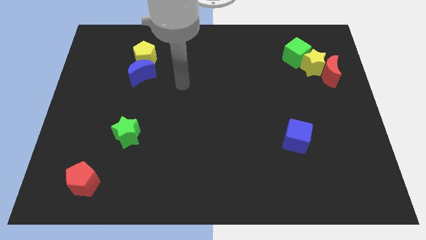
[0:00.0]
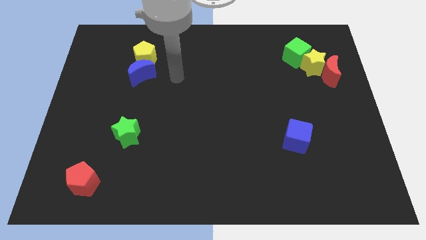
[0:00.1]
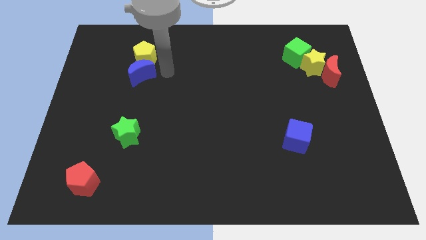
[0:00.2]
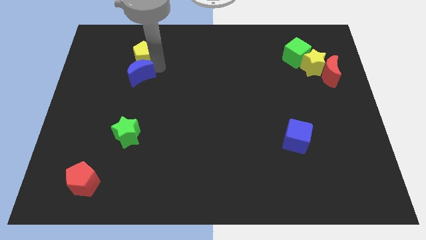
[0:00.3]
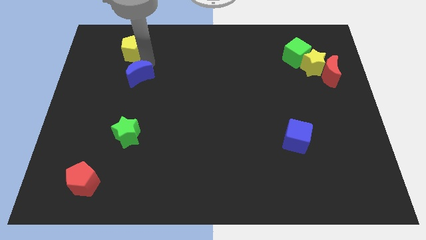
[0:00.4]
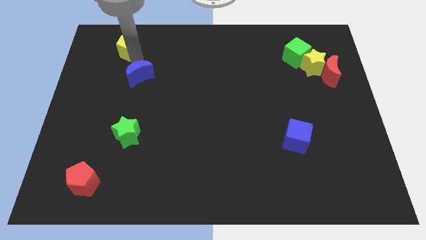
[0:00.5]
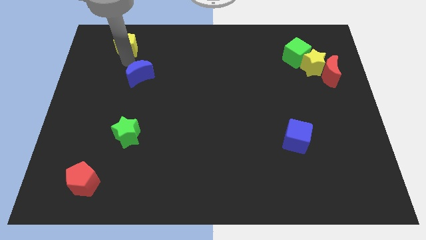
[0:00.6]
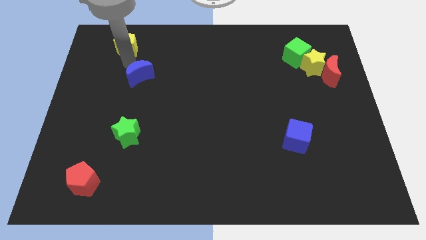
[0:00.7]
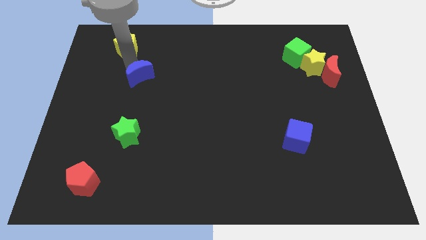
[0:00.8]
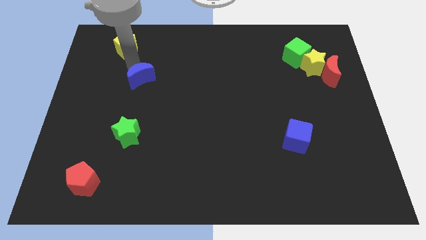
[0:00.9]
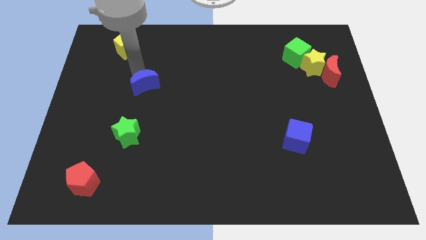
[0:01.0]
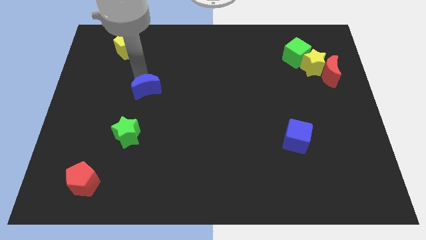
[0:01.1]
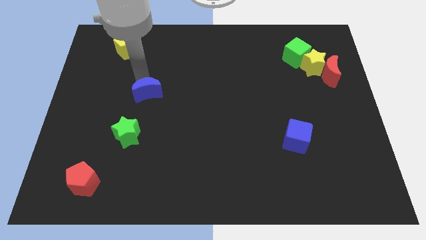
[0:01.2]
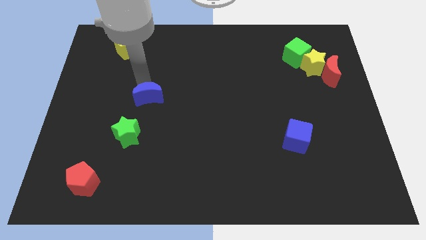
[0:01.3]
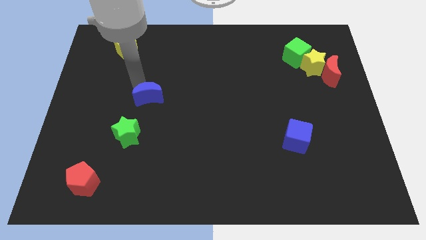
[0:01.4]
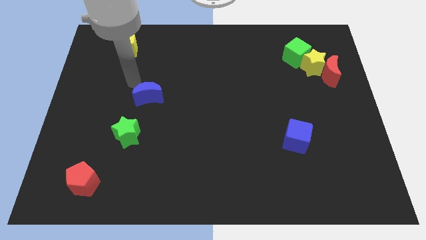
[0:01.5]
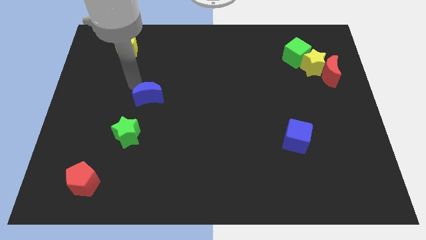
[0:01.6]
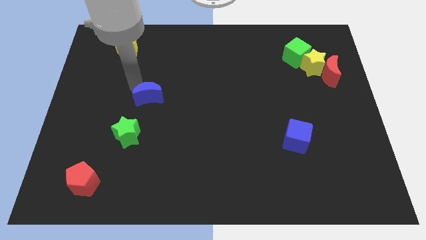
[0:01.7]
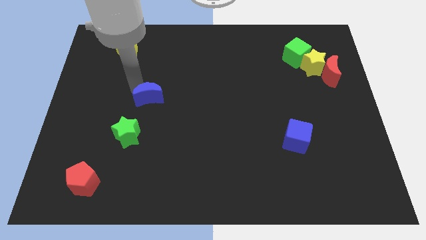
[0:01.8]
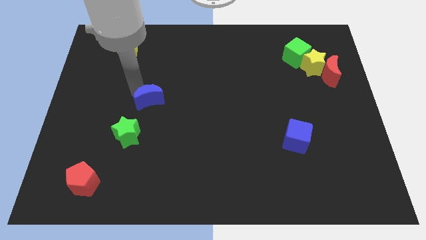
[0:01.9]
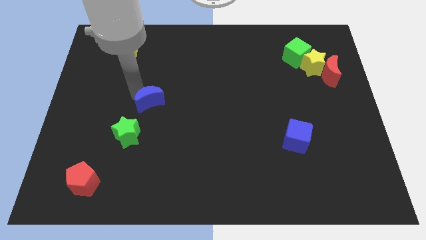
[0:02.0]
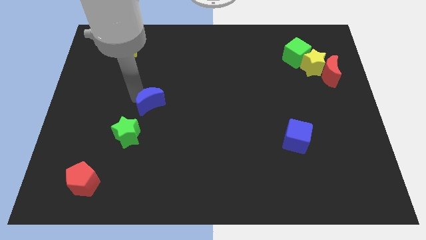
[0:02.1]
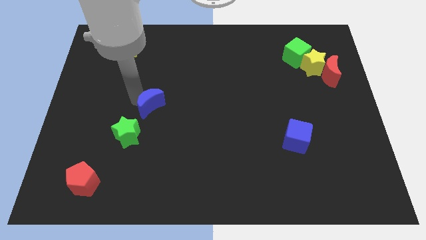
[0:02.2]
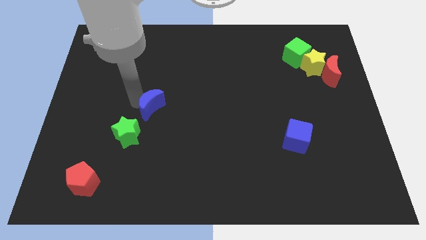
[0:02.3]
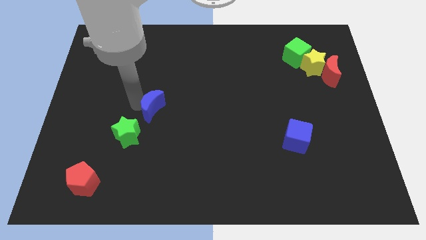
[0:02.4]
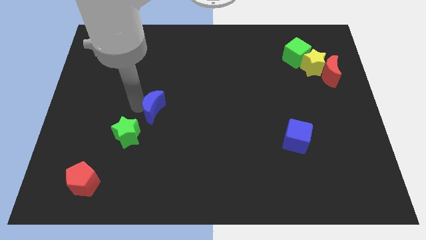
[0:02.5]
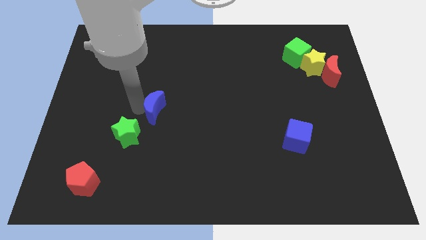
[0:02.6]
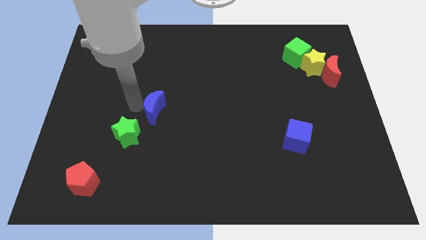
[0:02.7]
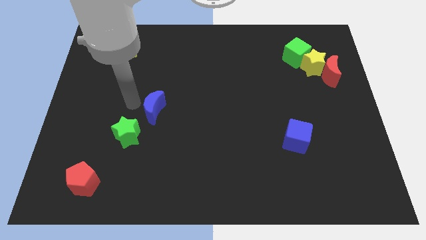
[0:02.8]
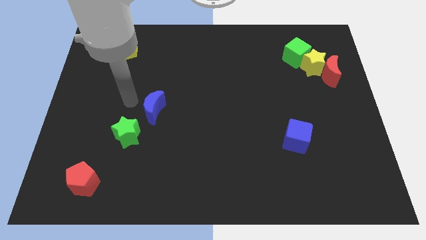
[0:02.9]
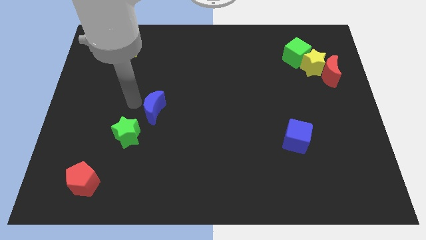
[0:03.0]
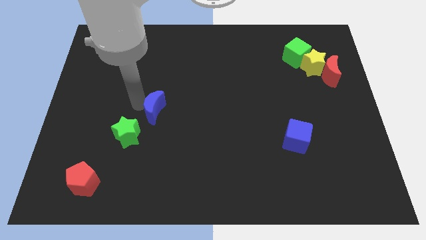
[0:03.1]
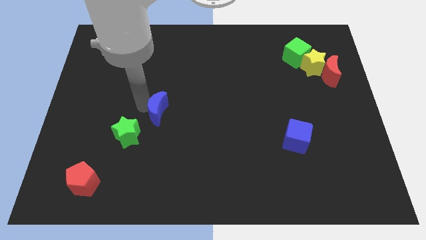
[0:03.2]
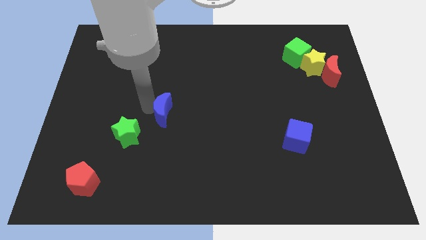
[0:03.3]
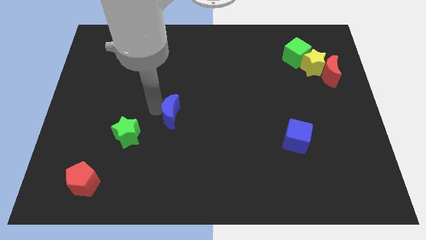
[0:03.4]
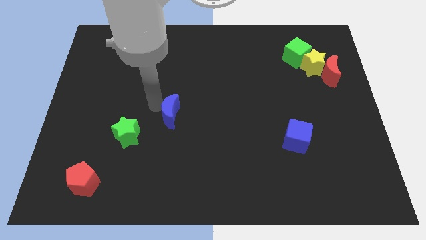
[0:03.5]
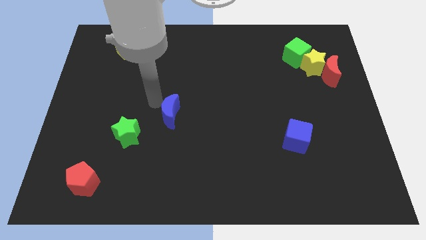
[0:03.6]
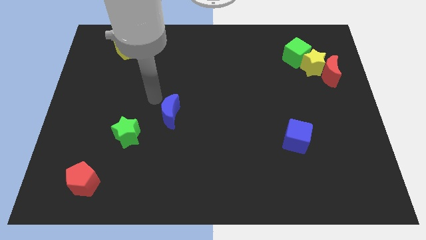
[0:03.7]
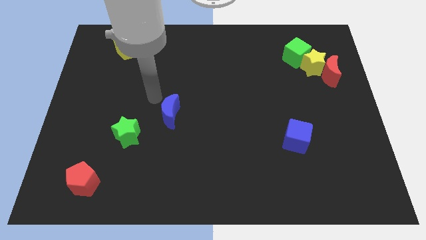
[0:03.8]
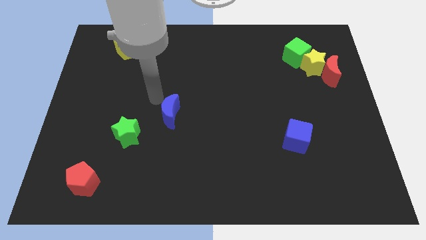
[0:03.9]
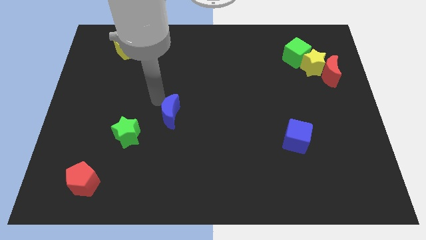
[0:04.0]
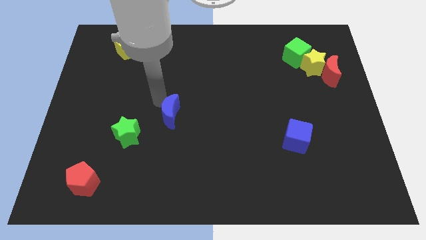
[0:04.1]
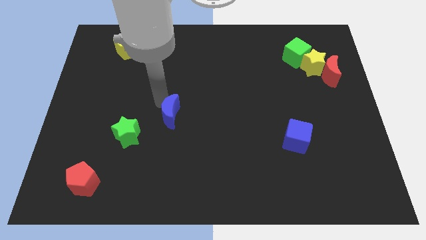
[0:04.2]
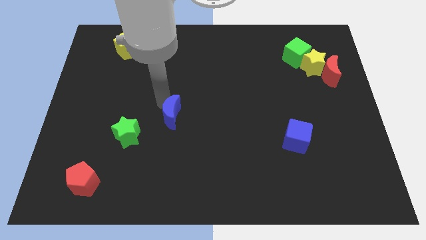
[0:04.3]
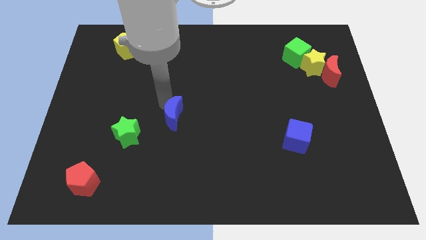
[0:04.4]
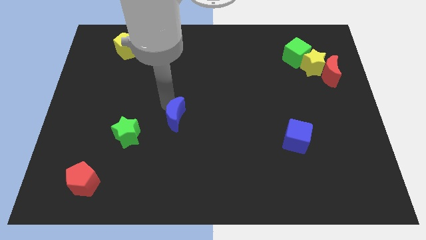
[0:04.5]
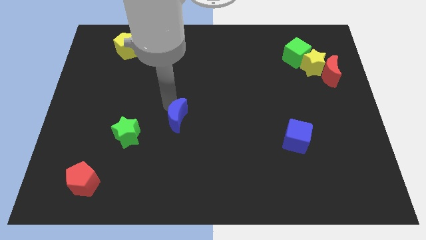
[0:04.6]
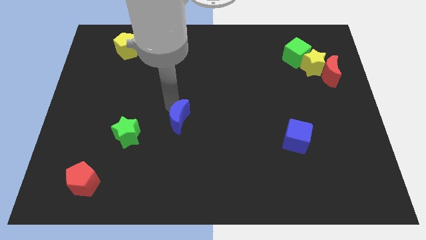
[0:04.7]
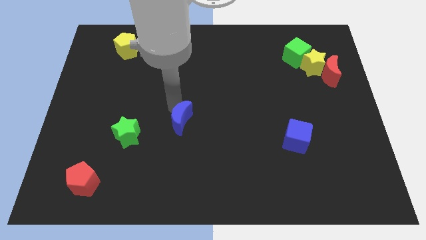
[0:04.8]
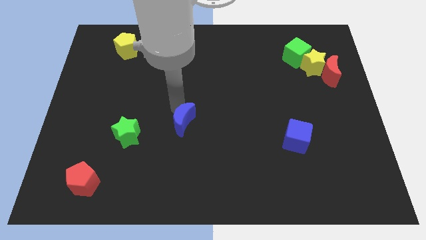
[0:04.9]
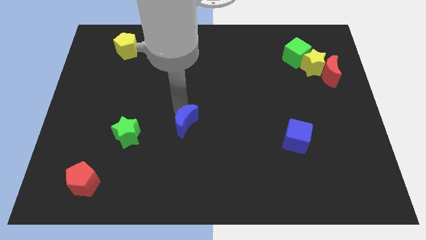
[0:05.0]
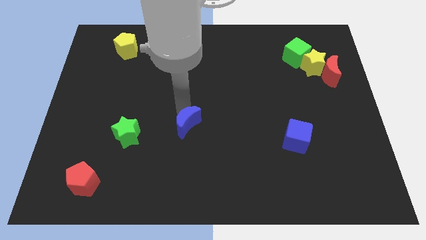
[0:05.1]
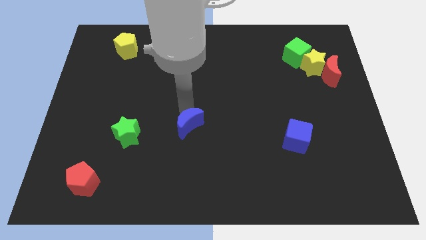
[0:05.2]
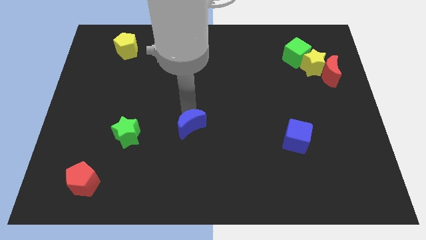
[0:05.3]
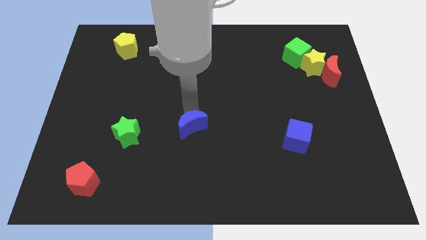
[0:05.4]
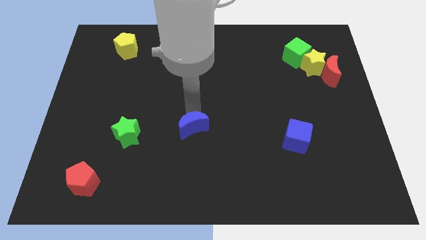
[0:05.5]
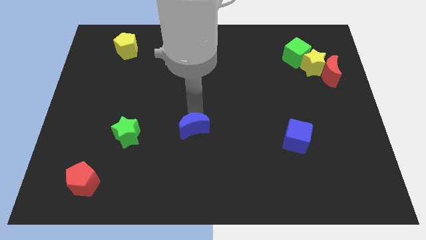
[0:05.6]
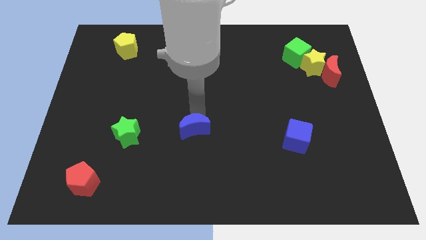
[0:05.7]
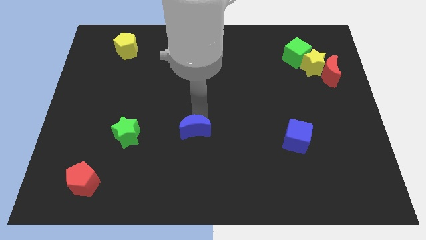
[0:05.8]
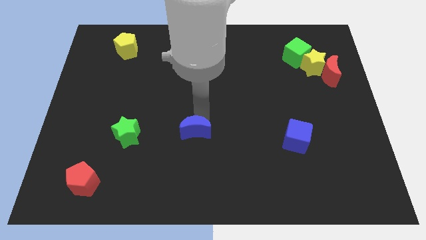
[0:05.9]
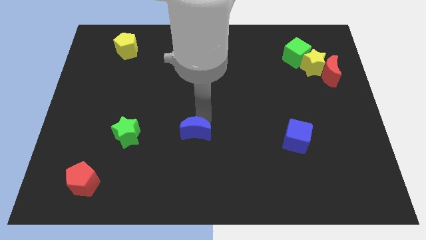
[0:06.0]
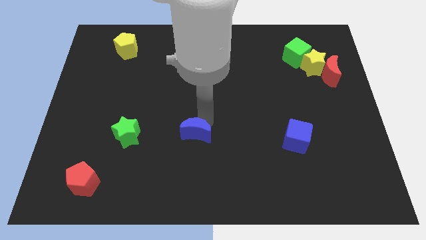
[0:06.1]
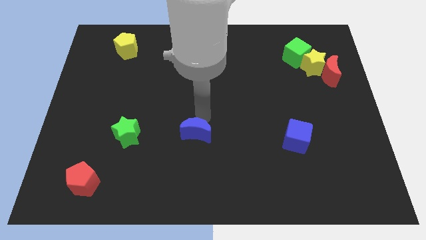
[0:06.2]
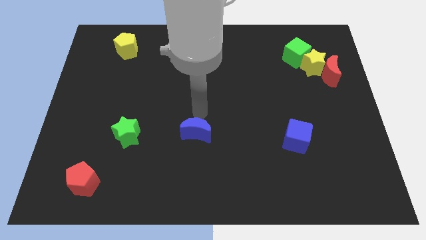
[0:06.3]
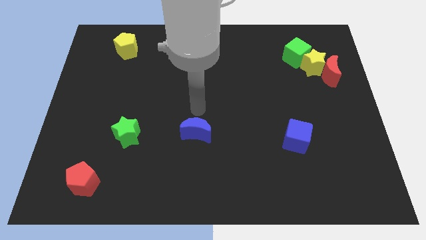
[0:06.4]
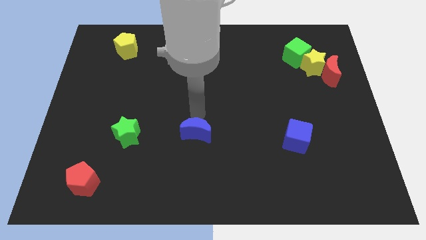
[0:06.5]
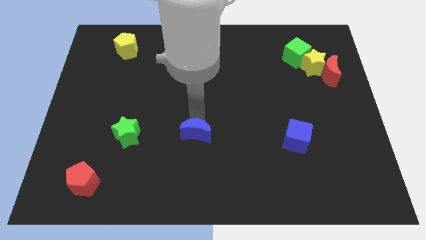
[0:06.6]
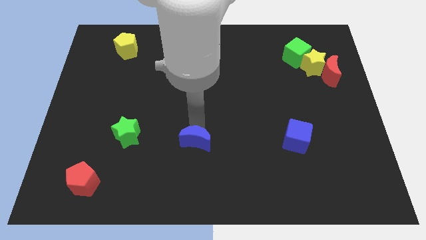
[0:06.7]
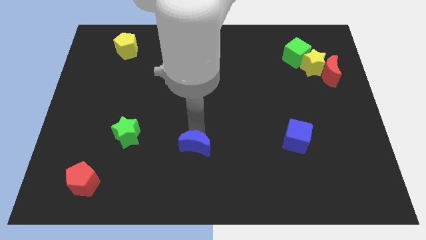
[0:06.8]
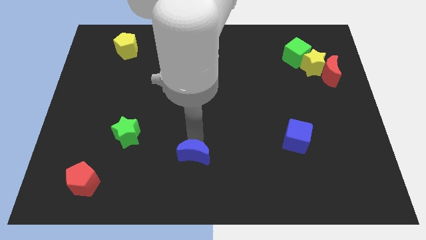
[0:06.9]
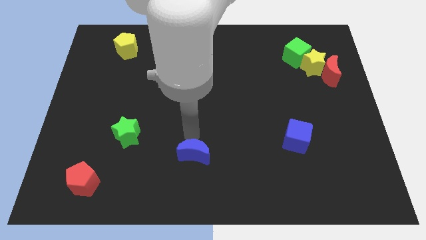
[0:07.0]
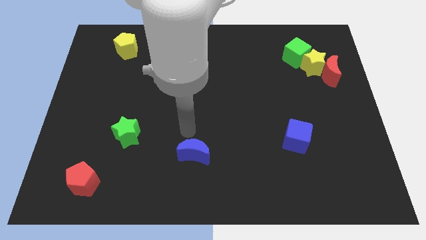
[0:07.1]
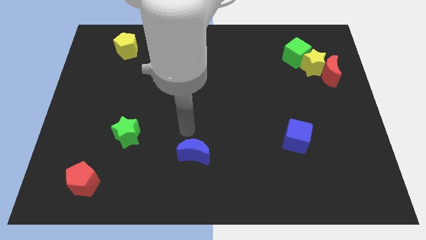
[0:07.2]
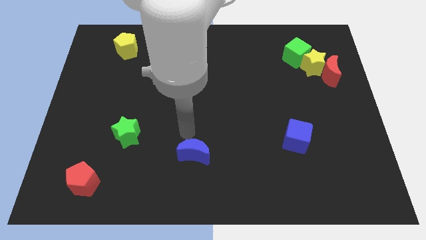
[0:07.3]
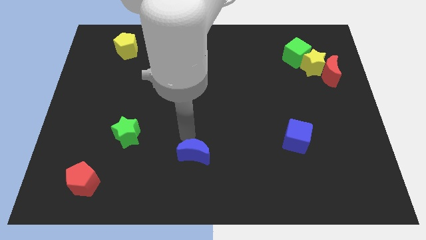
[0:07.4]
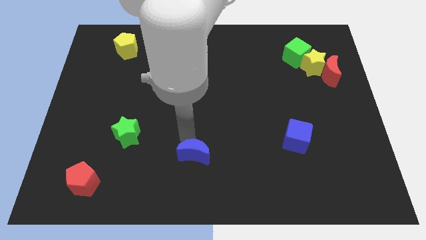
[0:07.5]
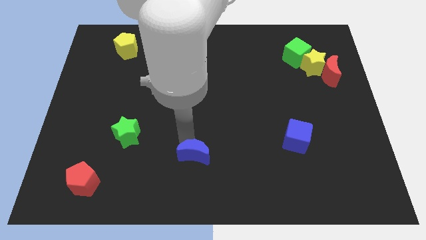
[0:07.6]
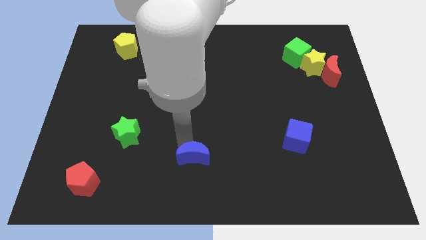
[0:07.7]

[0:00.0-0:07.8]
push the blue moon to the bottom side
